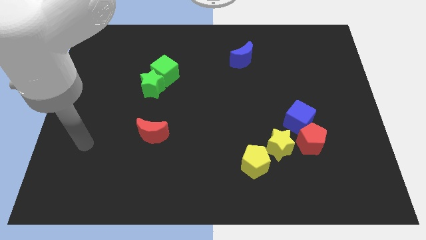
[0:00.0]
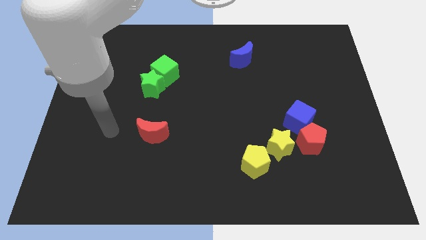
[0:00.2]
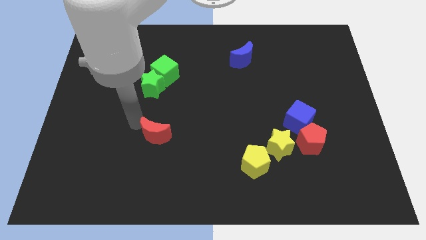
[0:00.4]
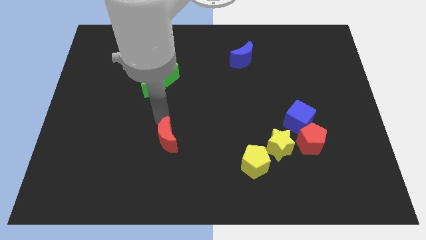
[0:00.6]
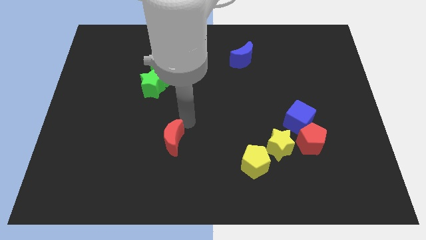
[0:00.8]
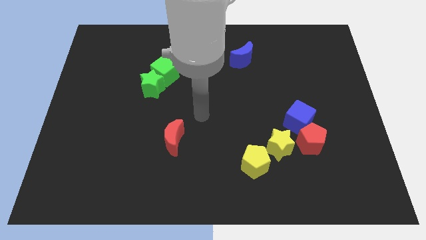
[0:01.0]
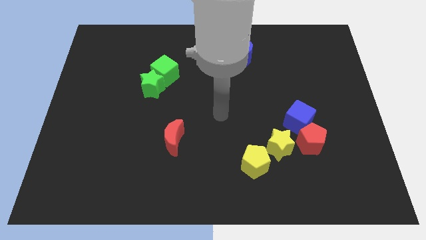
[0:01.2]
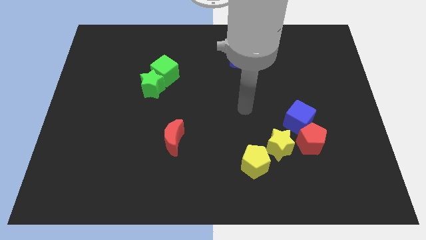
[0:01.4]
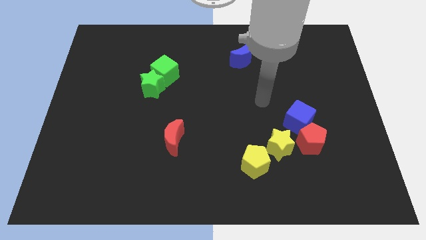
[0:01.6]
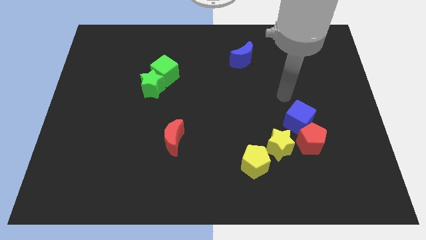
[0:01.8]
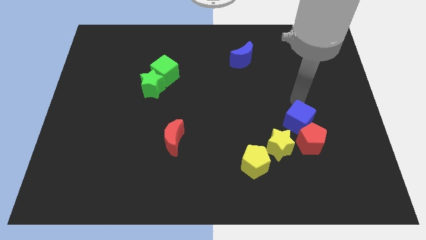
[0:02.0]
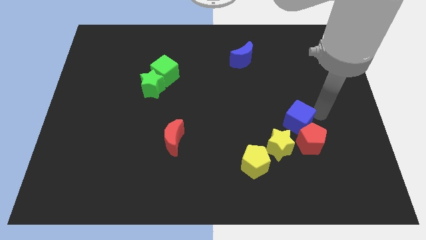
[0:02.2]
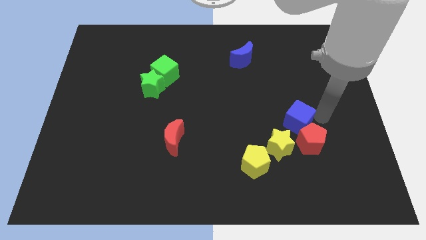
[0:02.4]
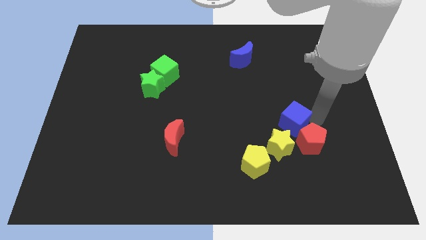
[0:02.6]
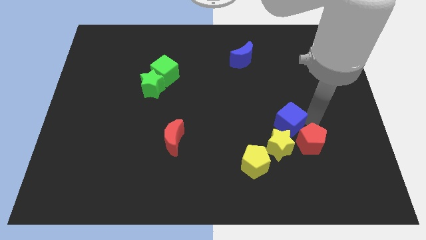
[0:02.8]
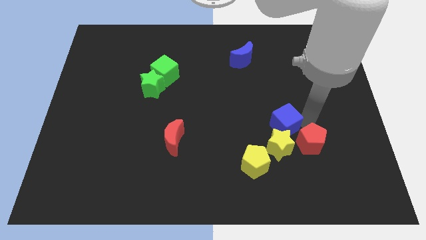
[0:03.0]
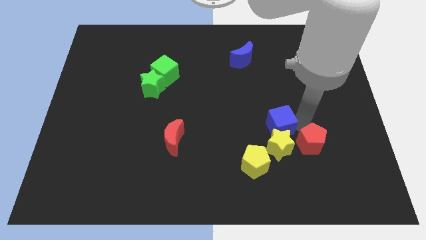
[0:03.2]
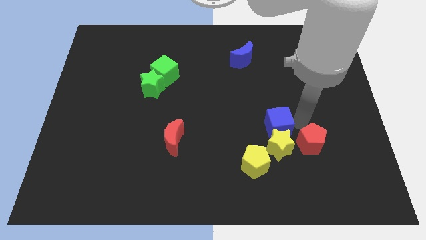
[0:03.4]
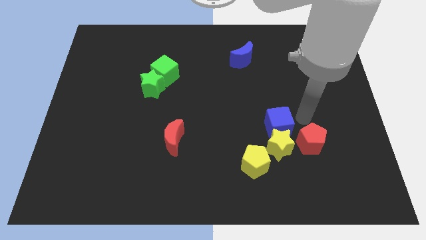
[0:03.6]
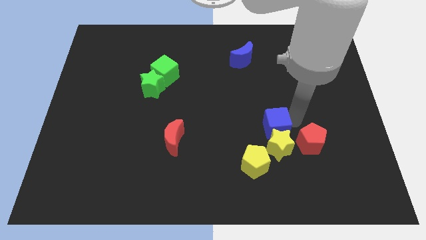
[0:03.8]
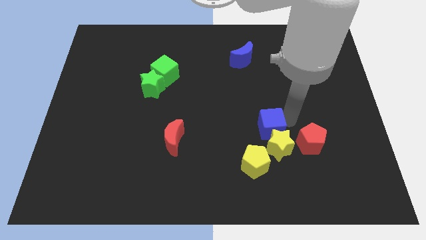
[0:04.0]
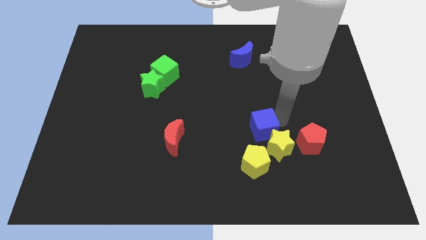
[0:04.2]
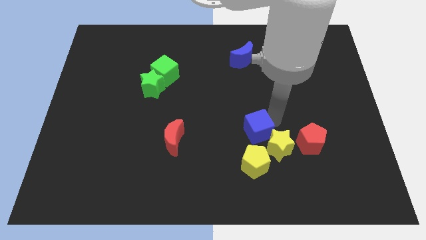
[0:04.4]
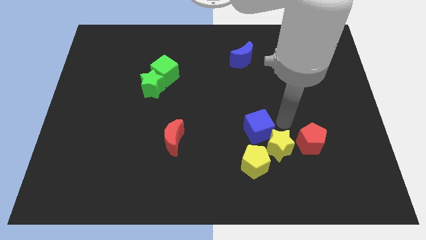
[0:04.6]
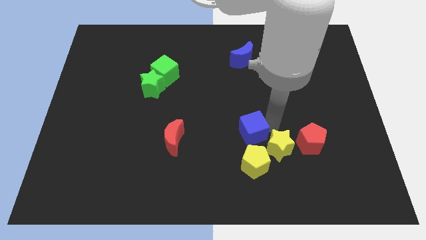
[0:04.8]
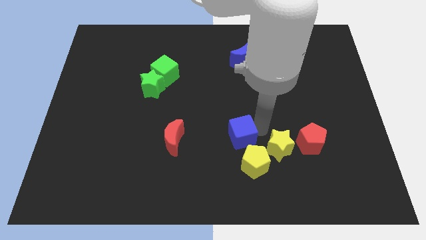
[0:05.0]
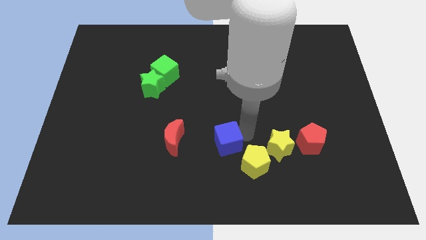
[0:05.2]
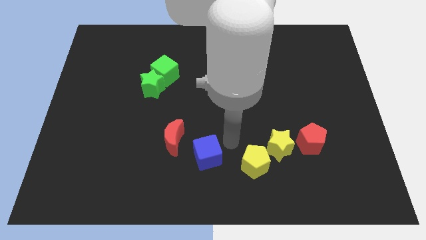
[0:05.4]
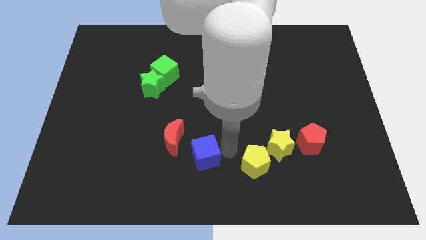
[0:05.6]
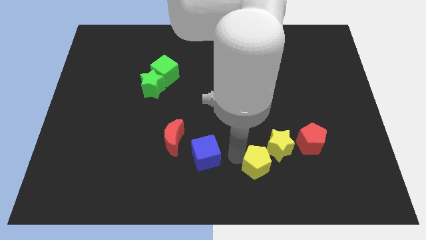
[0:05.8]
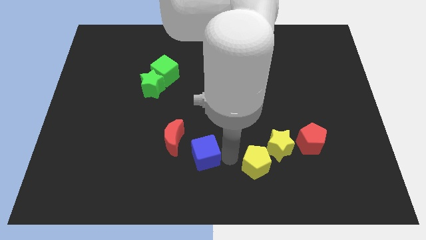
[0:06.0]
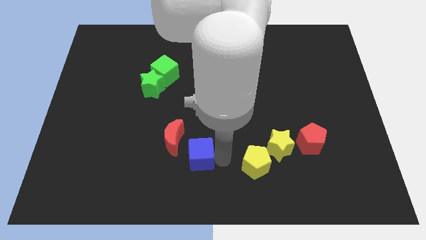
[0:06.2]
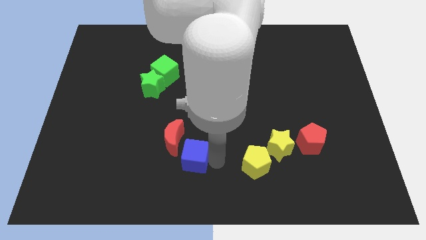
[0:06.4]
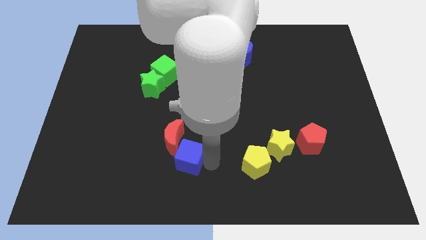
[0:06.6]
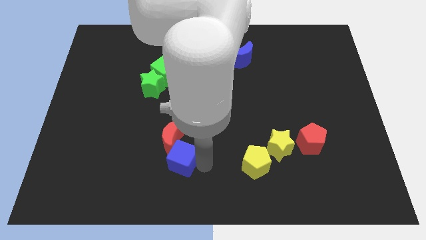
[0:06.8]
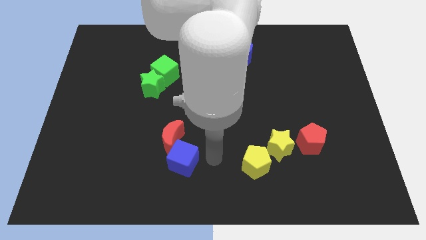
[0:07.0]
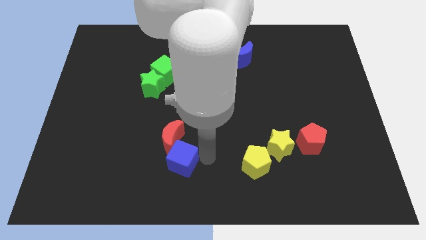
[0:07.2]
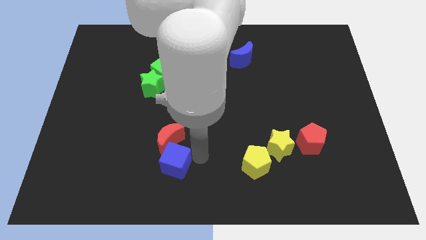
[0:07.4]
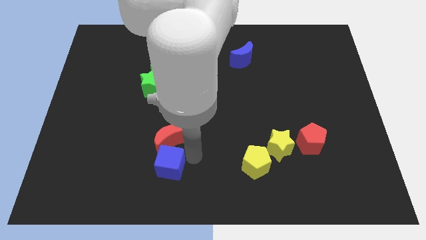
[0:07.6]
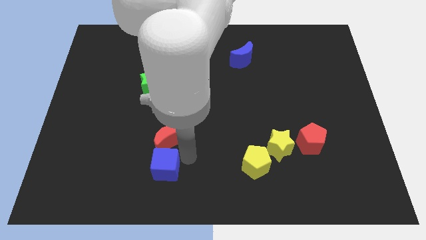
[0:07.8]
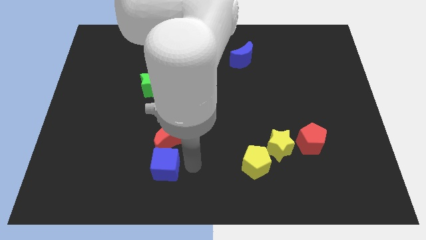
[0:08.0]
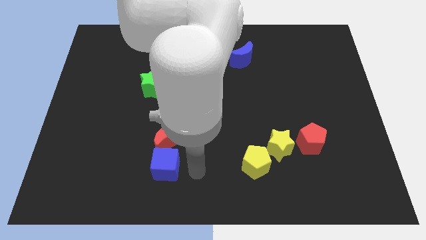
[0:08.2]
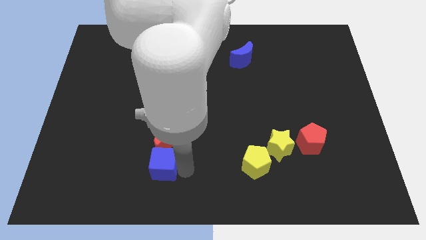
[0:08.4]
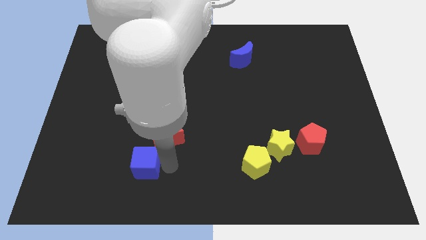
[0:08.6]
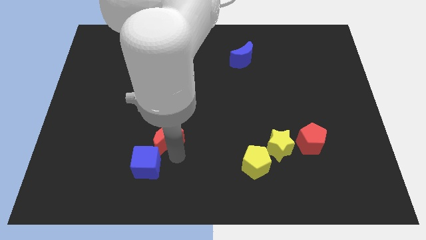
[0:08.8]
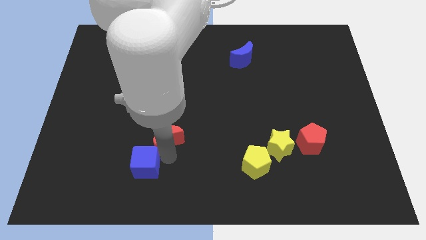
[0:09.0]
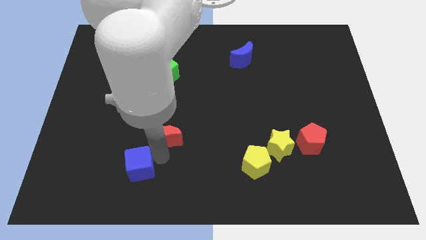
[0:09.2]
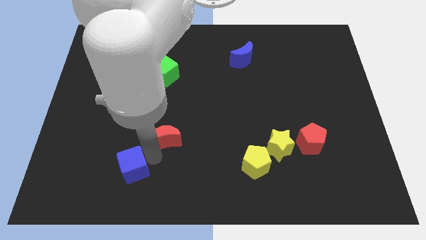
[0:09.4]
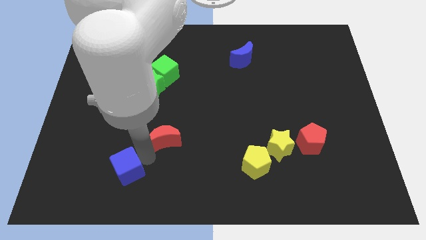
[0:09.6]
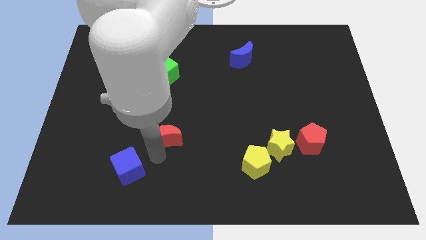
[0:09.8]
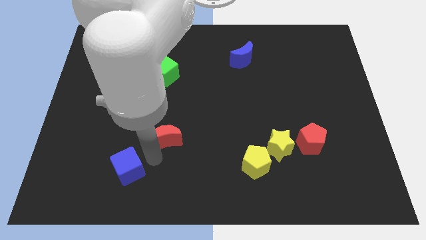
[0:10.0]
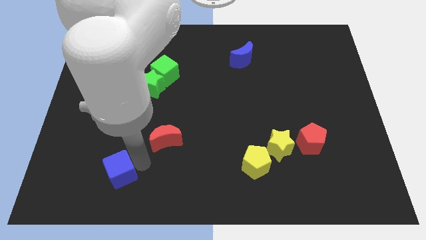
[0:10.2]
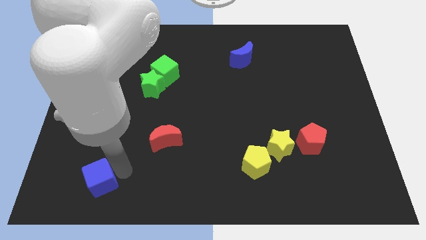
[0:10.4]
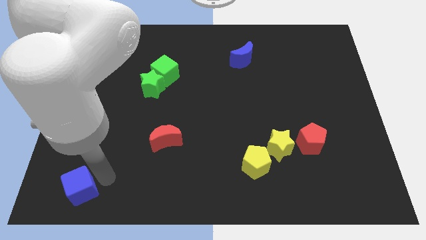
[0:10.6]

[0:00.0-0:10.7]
push the blue cube to the bottom left of the board

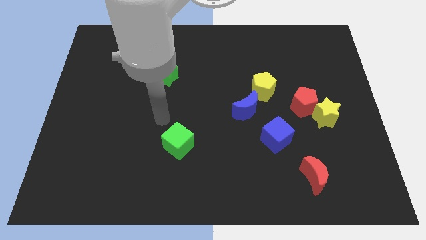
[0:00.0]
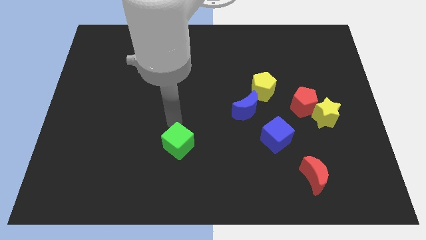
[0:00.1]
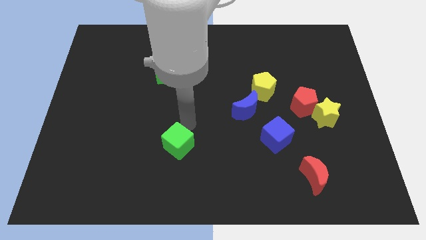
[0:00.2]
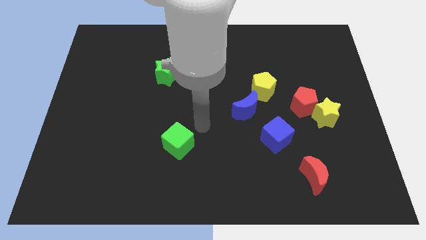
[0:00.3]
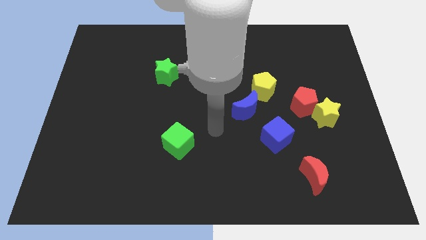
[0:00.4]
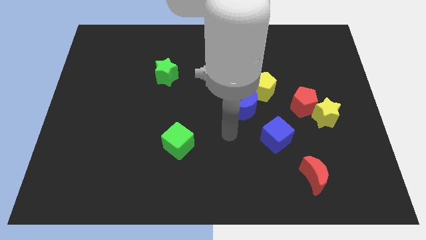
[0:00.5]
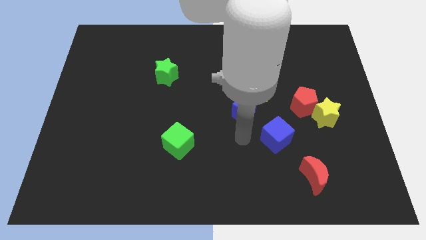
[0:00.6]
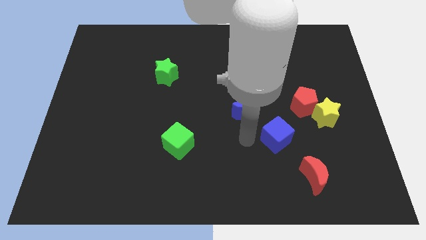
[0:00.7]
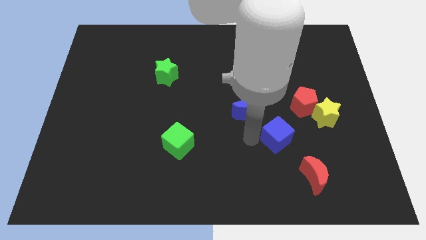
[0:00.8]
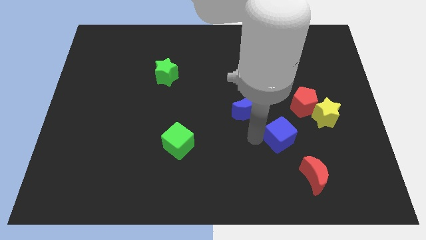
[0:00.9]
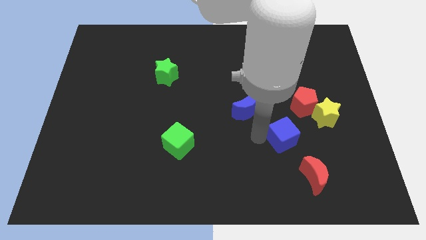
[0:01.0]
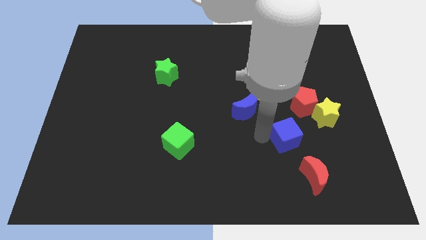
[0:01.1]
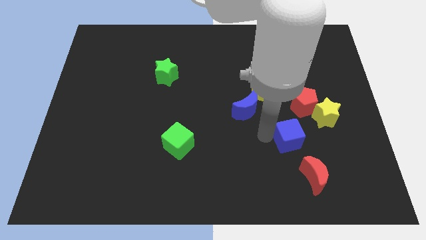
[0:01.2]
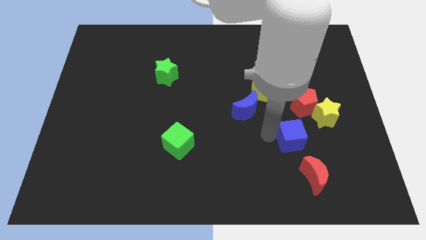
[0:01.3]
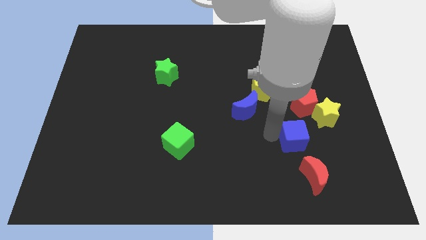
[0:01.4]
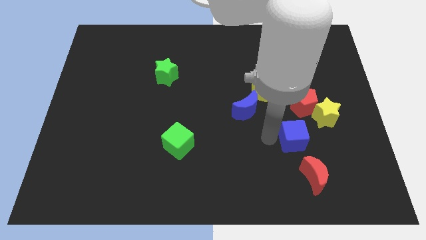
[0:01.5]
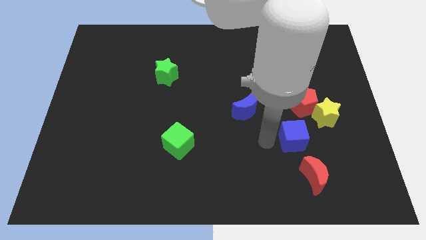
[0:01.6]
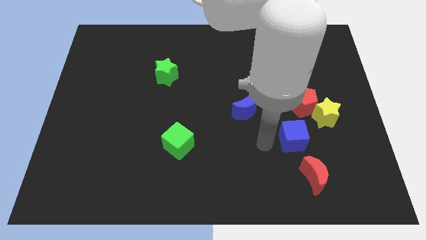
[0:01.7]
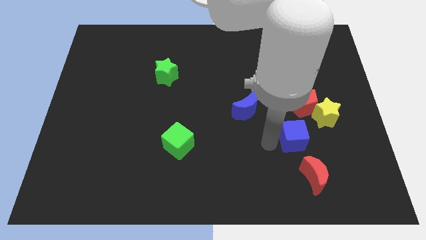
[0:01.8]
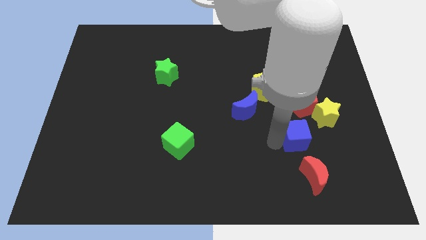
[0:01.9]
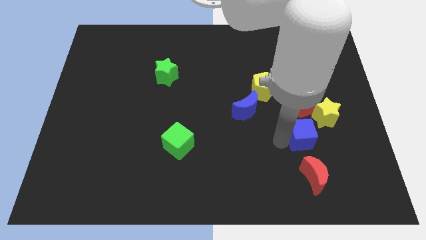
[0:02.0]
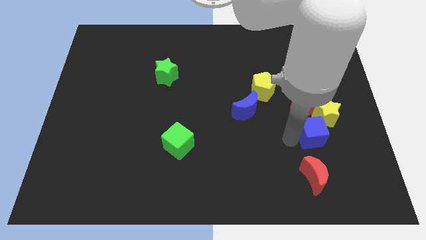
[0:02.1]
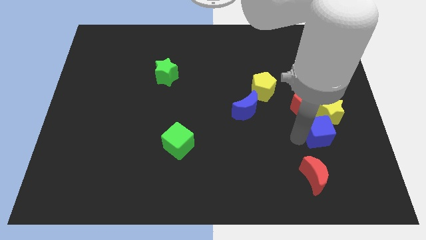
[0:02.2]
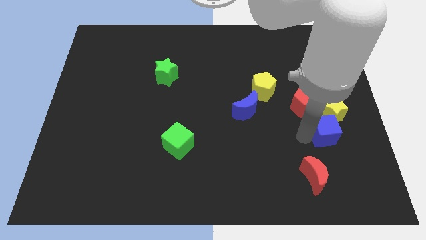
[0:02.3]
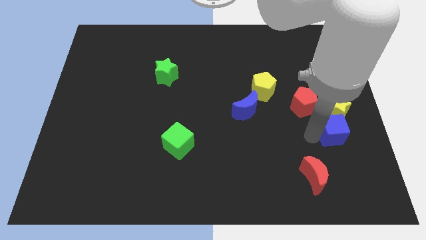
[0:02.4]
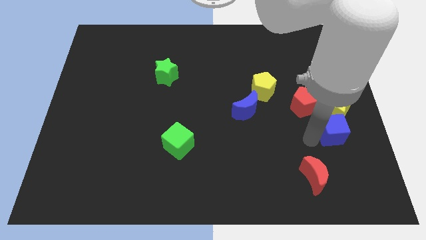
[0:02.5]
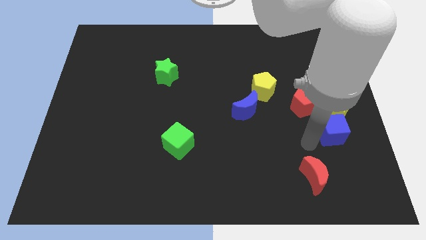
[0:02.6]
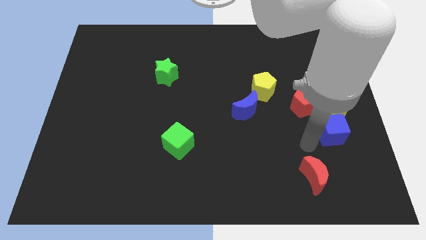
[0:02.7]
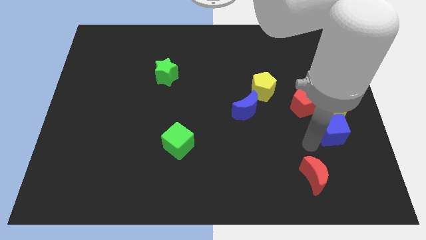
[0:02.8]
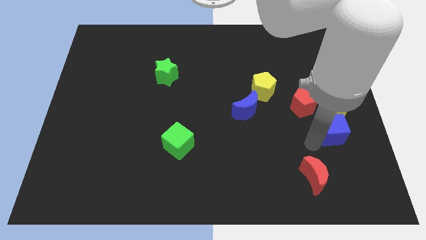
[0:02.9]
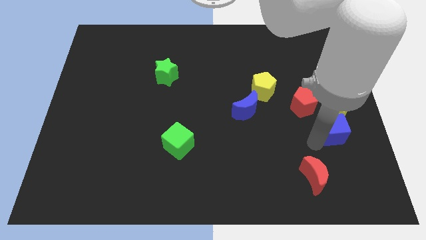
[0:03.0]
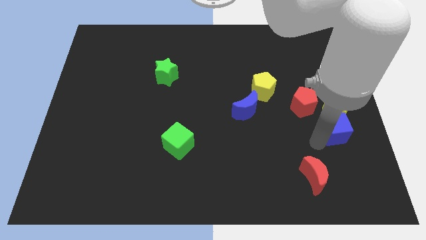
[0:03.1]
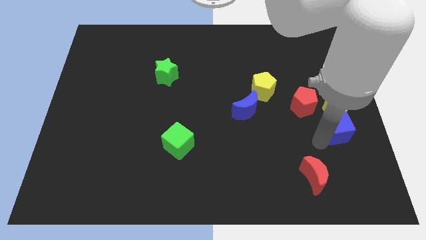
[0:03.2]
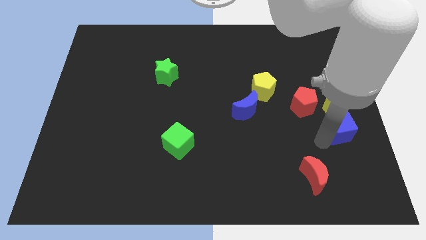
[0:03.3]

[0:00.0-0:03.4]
move the blue cube to the right side
